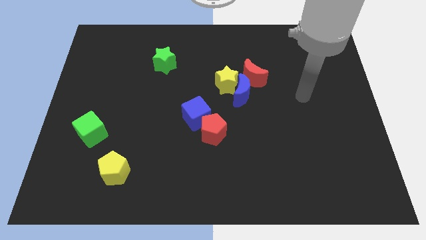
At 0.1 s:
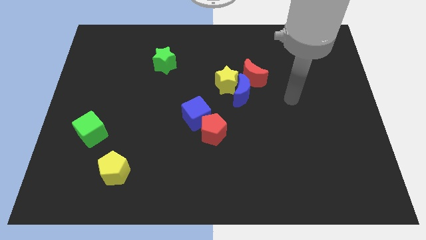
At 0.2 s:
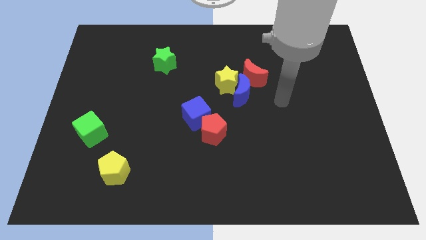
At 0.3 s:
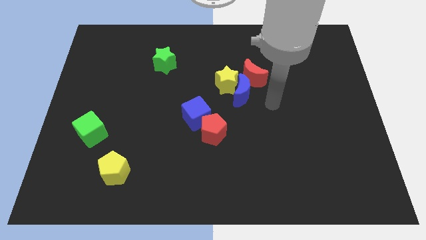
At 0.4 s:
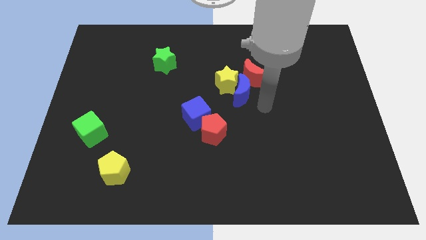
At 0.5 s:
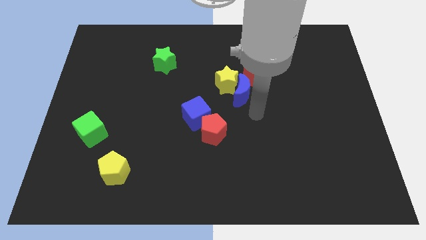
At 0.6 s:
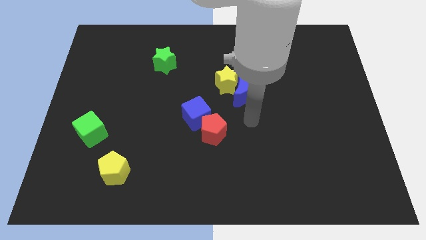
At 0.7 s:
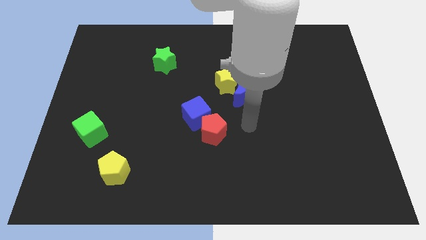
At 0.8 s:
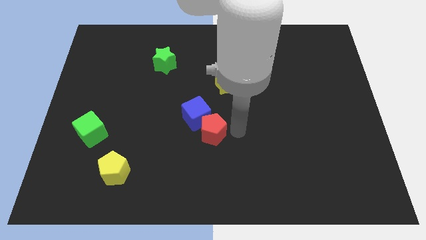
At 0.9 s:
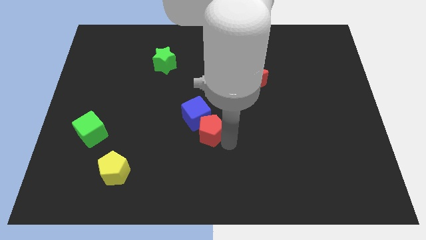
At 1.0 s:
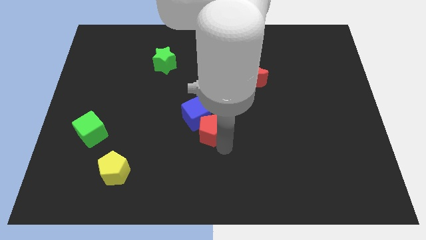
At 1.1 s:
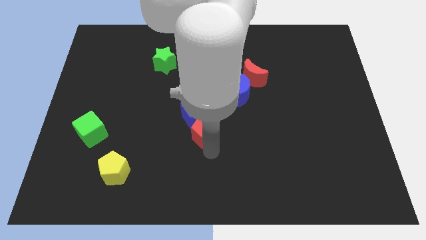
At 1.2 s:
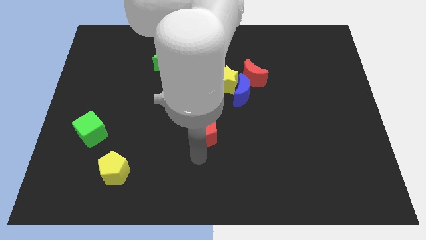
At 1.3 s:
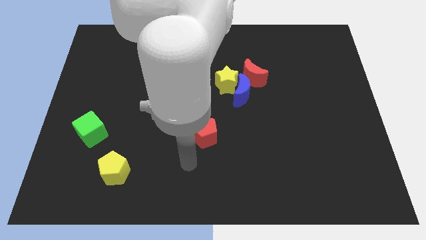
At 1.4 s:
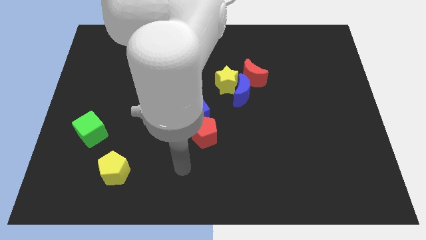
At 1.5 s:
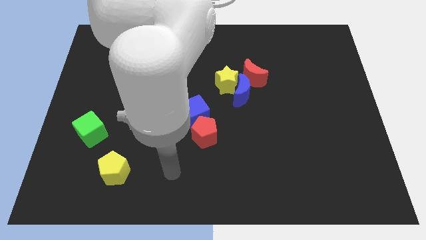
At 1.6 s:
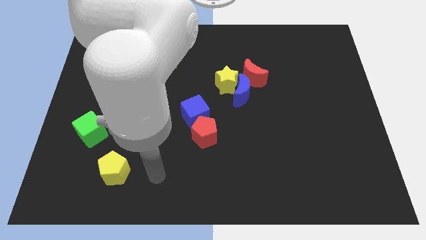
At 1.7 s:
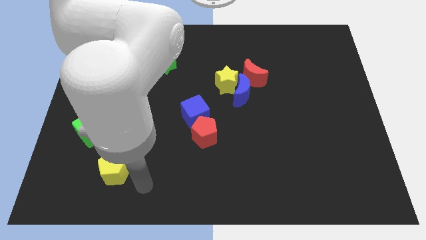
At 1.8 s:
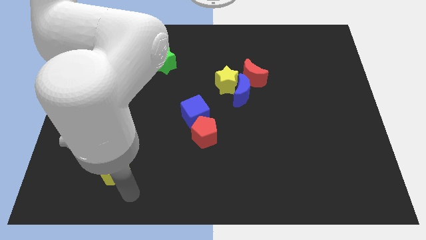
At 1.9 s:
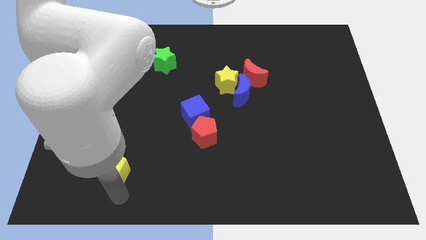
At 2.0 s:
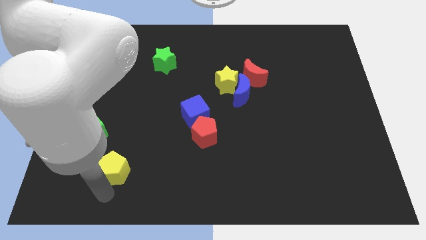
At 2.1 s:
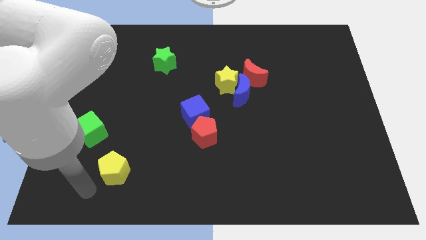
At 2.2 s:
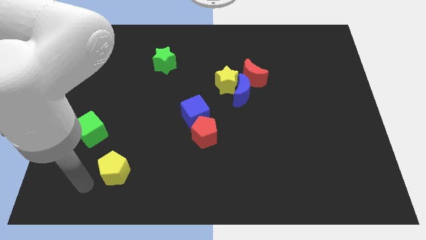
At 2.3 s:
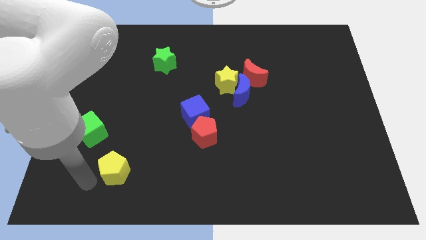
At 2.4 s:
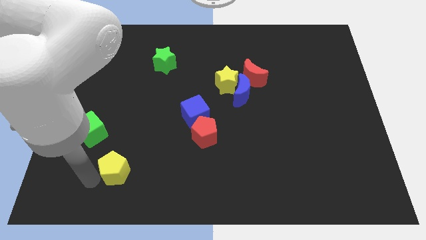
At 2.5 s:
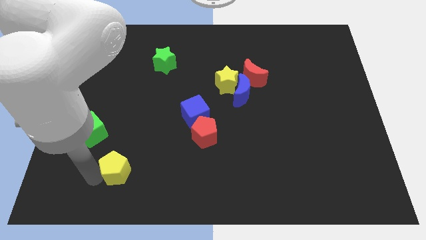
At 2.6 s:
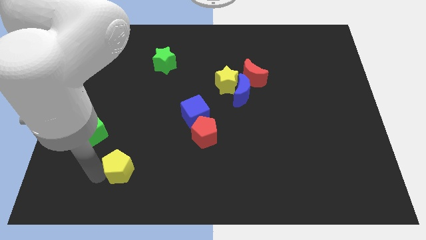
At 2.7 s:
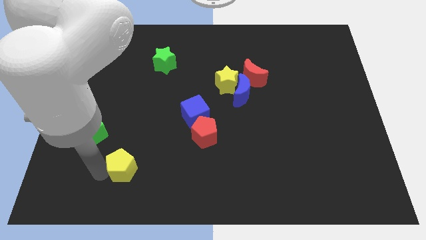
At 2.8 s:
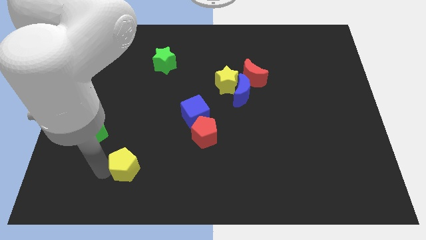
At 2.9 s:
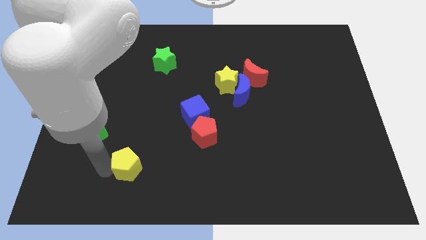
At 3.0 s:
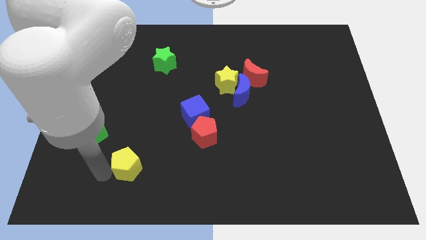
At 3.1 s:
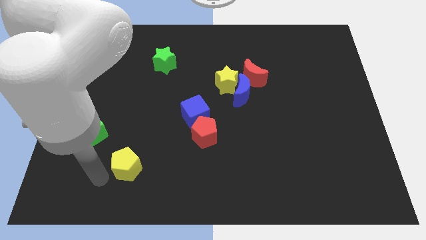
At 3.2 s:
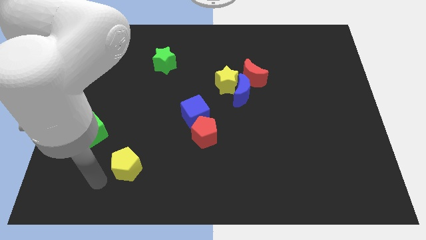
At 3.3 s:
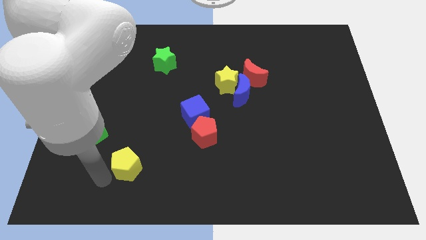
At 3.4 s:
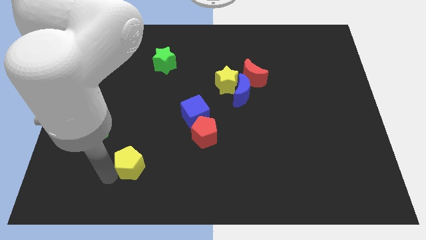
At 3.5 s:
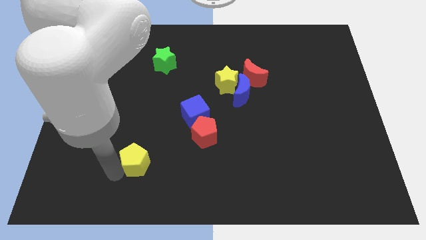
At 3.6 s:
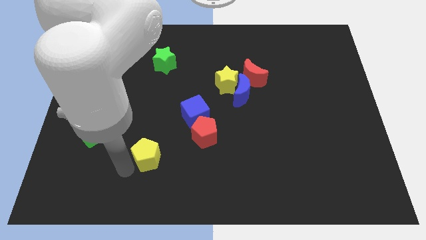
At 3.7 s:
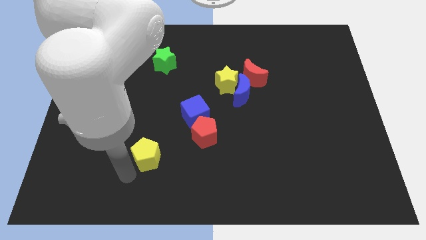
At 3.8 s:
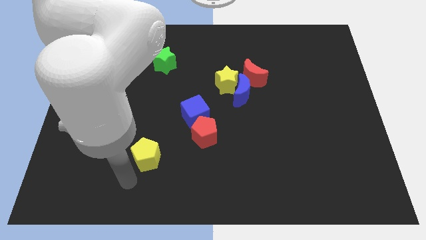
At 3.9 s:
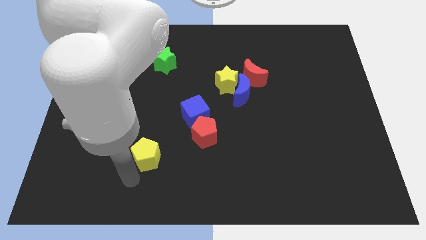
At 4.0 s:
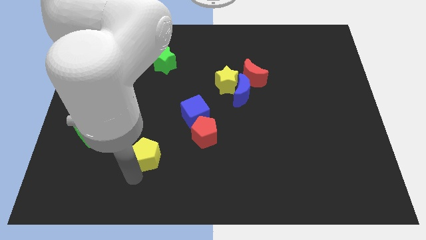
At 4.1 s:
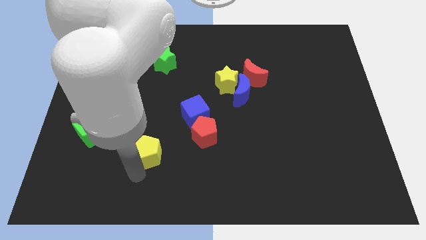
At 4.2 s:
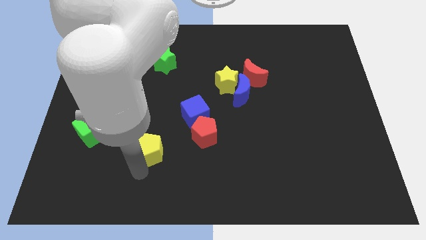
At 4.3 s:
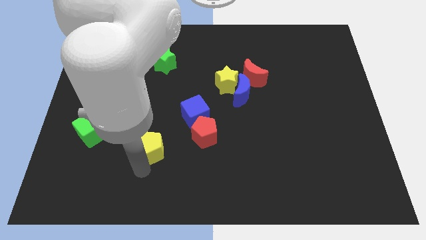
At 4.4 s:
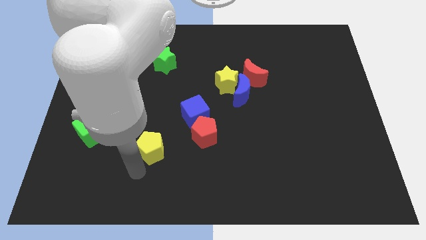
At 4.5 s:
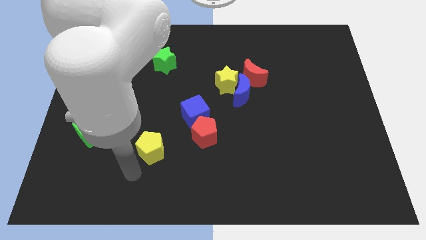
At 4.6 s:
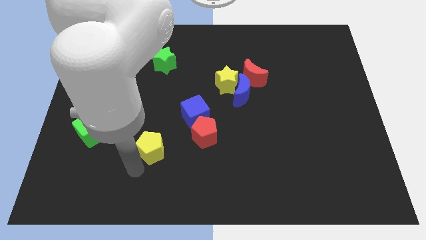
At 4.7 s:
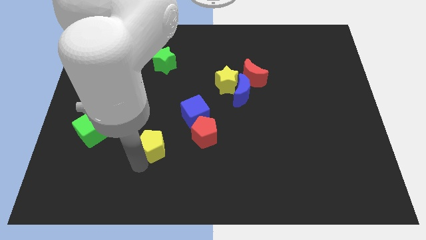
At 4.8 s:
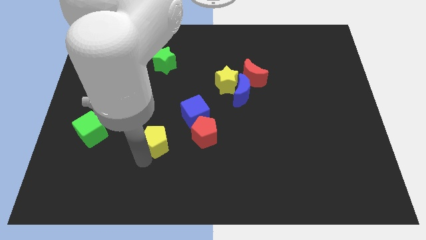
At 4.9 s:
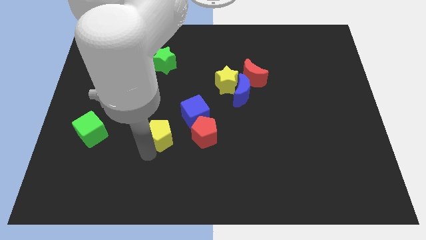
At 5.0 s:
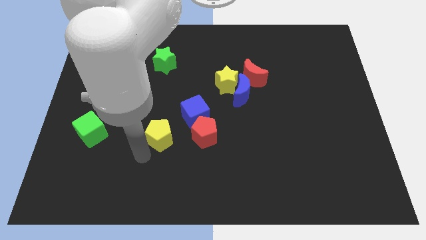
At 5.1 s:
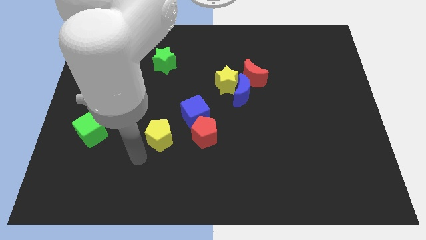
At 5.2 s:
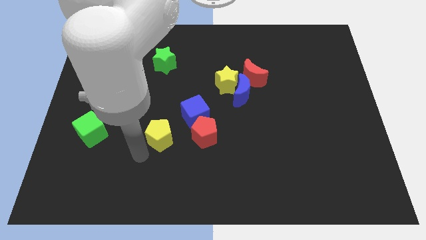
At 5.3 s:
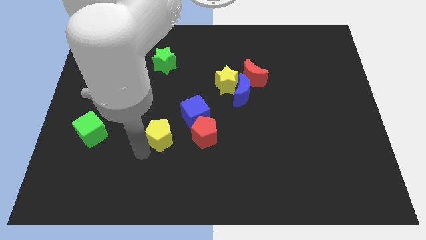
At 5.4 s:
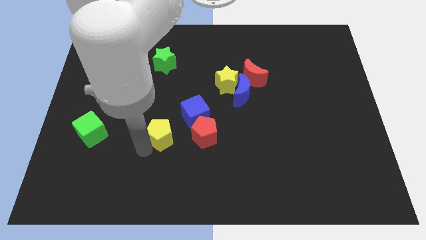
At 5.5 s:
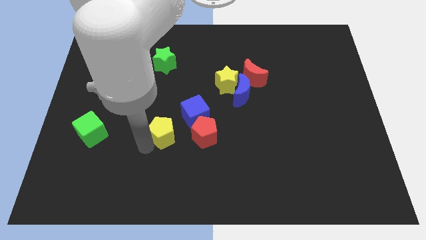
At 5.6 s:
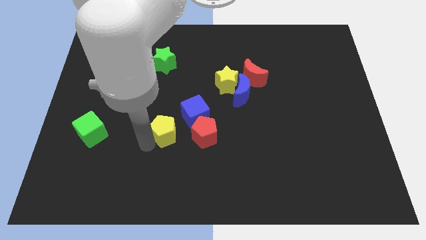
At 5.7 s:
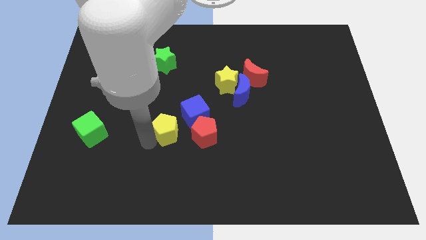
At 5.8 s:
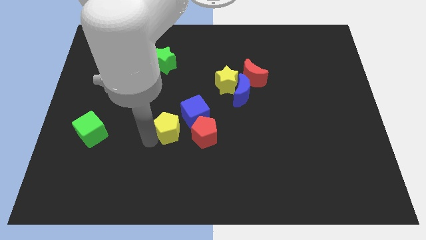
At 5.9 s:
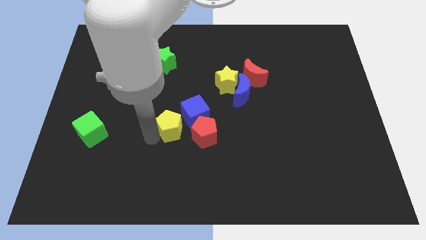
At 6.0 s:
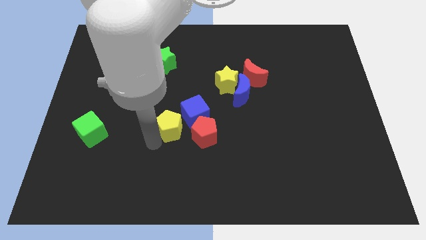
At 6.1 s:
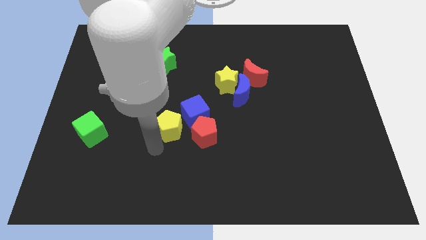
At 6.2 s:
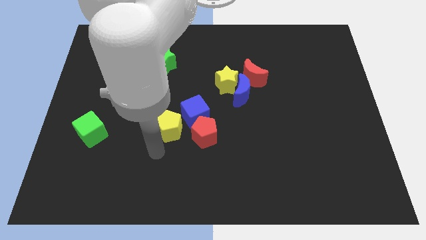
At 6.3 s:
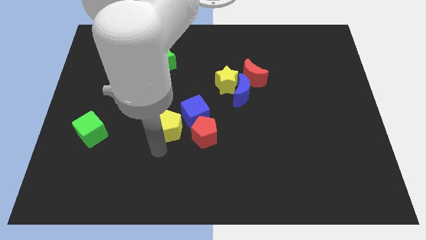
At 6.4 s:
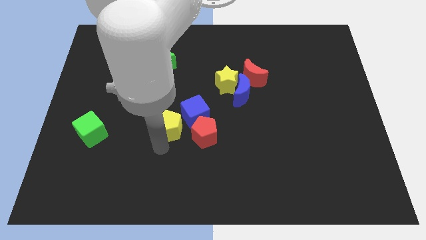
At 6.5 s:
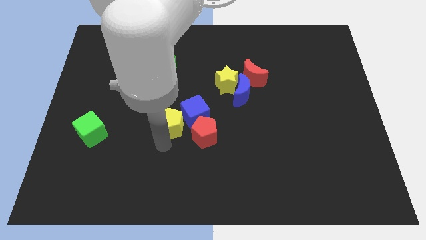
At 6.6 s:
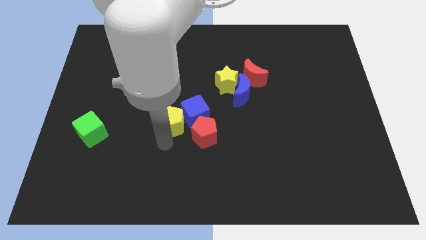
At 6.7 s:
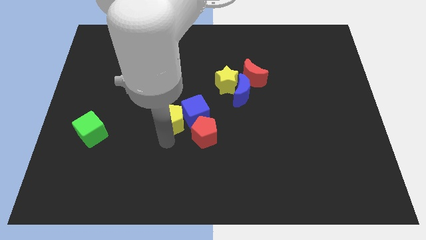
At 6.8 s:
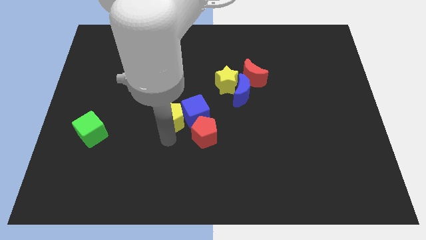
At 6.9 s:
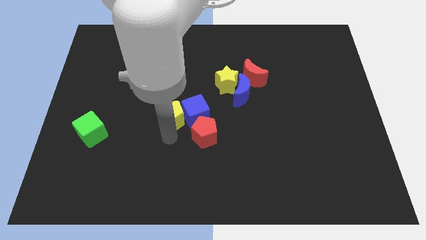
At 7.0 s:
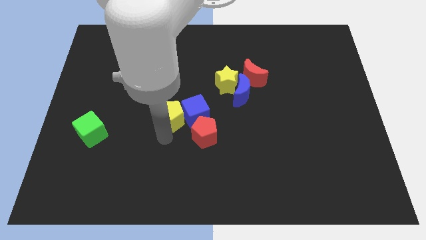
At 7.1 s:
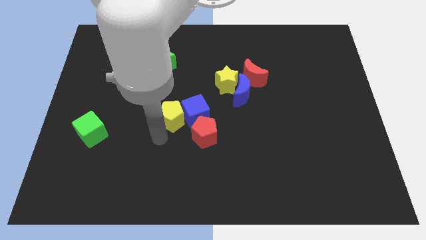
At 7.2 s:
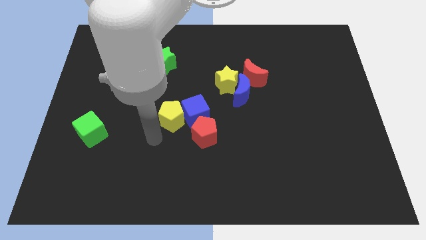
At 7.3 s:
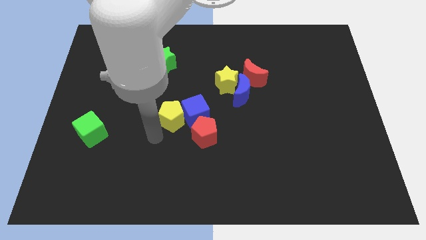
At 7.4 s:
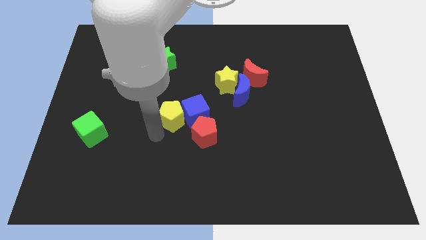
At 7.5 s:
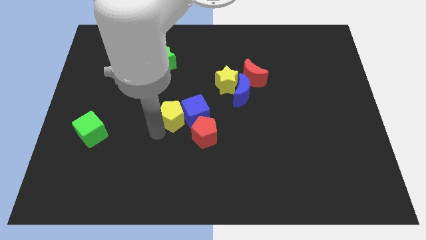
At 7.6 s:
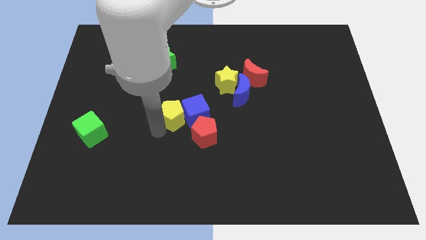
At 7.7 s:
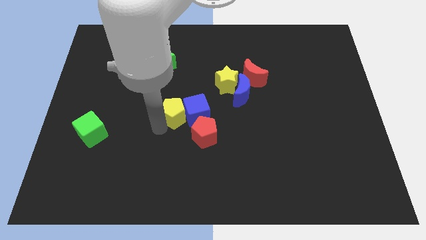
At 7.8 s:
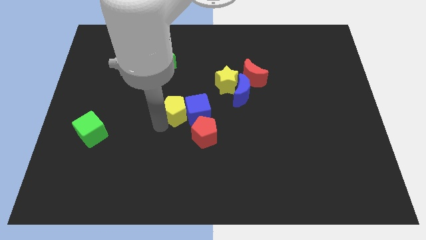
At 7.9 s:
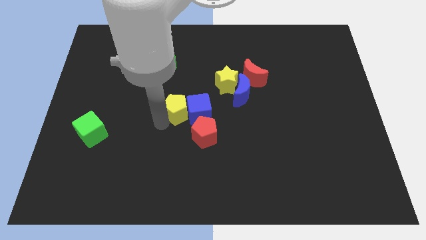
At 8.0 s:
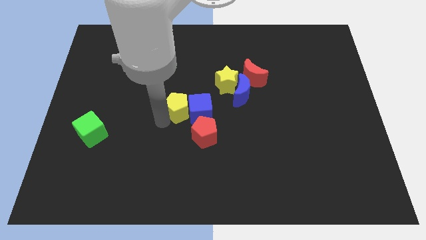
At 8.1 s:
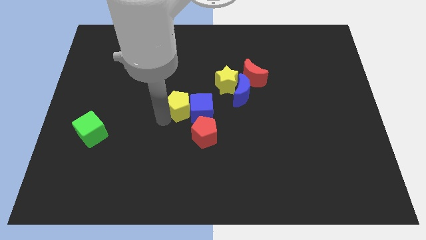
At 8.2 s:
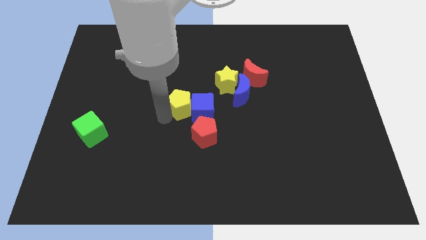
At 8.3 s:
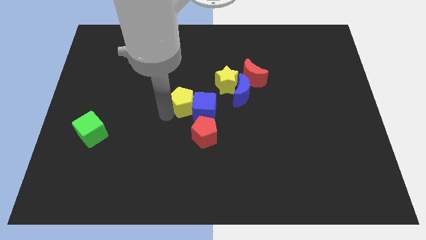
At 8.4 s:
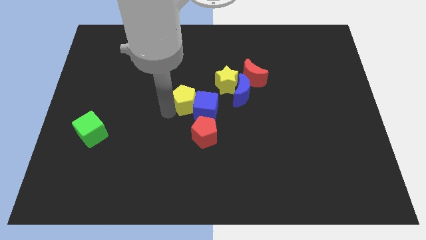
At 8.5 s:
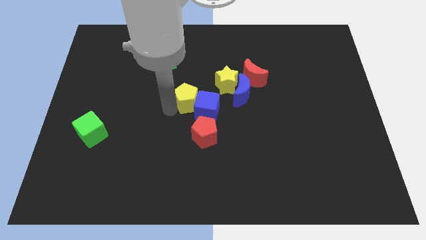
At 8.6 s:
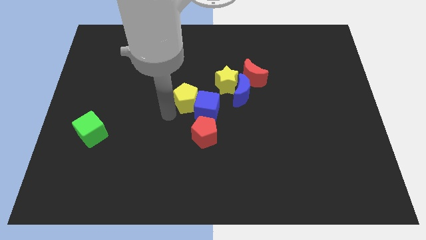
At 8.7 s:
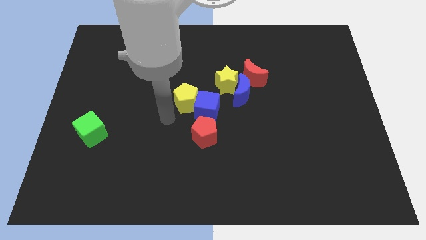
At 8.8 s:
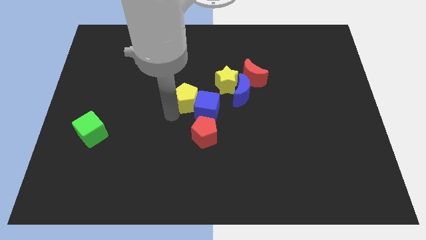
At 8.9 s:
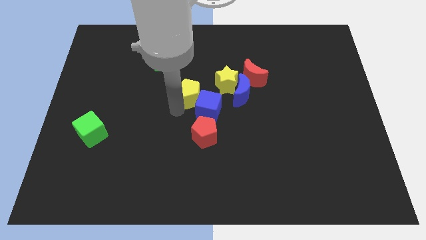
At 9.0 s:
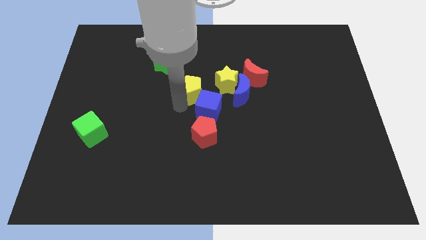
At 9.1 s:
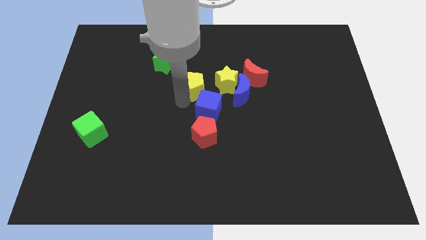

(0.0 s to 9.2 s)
move the yellow pentagon left of the red moon
